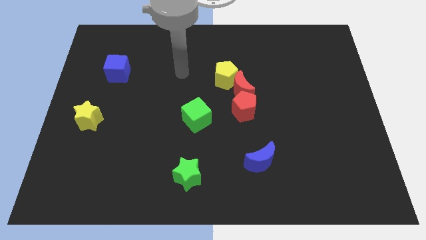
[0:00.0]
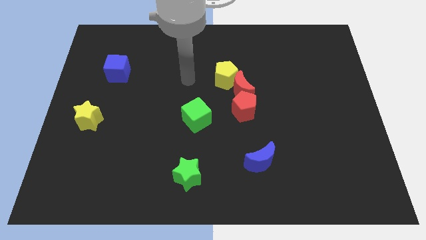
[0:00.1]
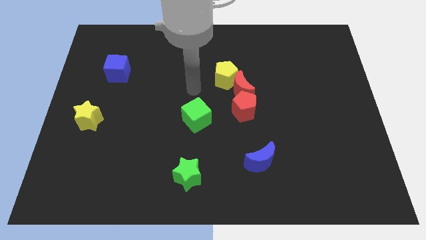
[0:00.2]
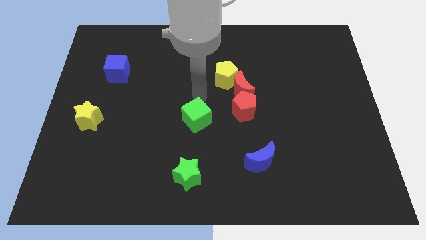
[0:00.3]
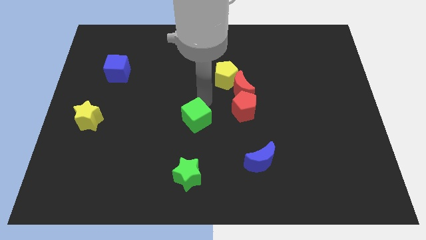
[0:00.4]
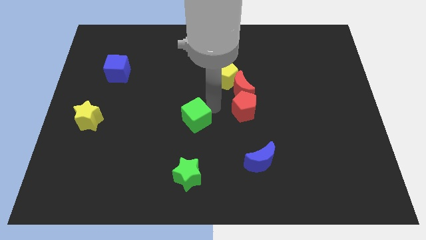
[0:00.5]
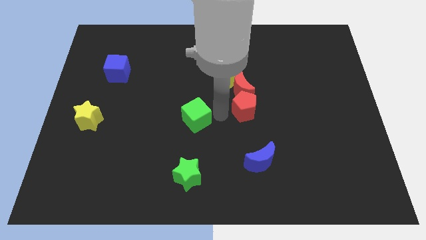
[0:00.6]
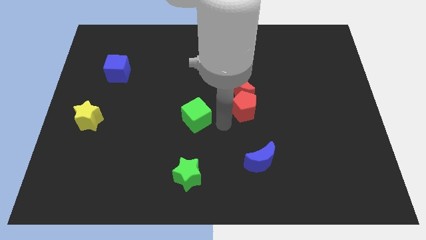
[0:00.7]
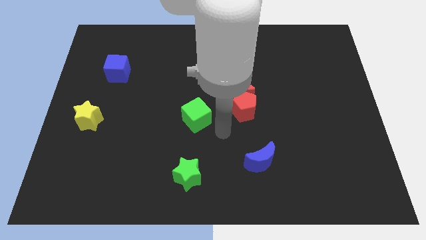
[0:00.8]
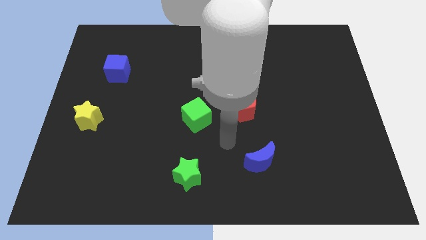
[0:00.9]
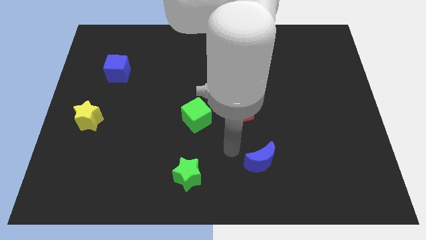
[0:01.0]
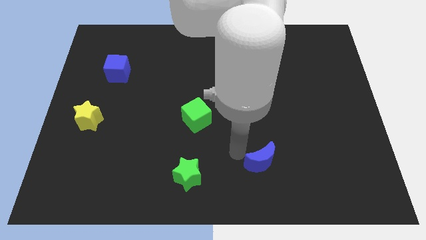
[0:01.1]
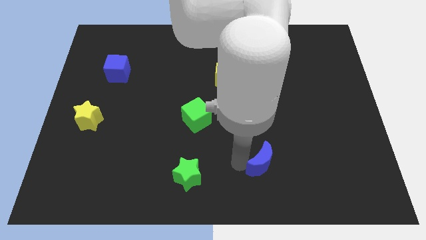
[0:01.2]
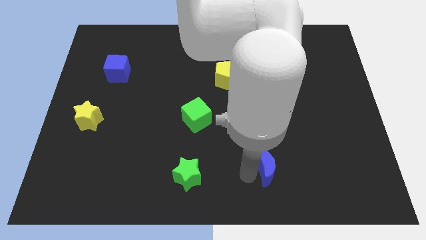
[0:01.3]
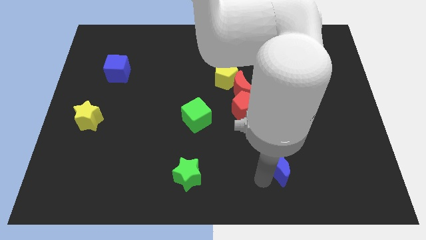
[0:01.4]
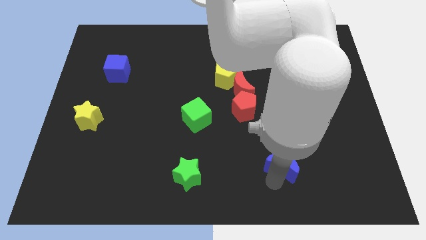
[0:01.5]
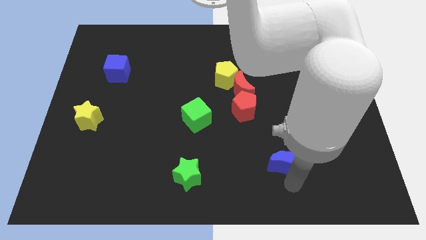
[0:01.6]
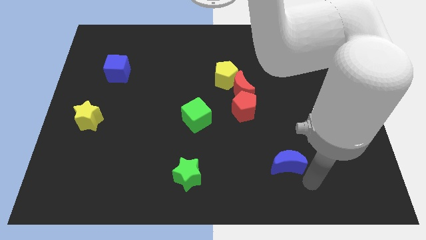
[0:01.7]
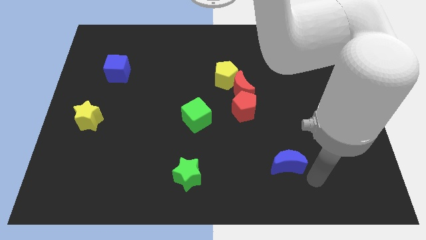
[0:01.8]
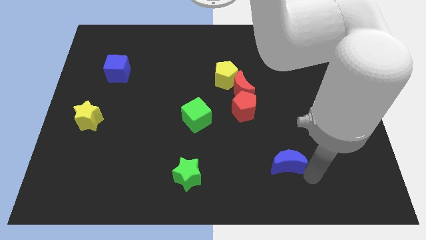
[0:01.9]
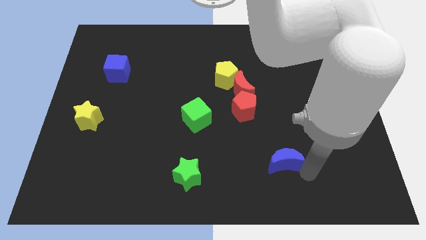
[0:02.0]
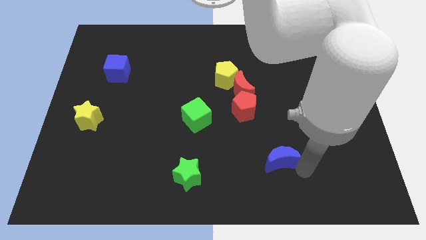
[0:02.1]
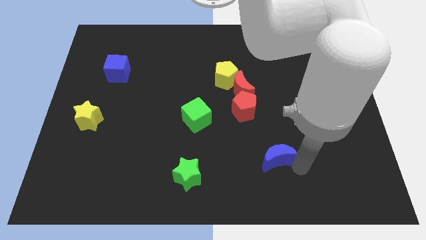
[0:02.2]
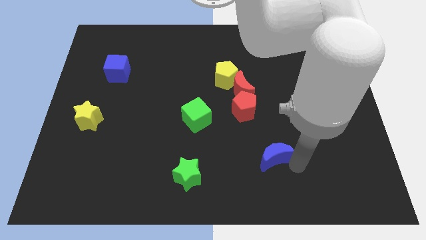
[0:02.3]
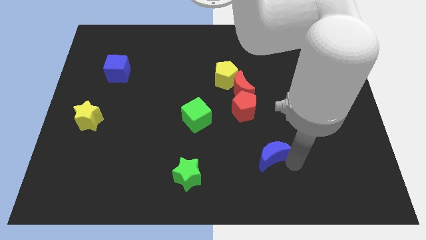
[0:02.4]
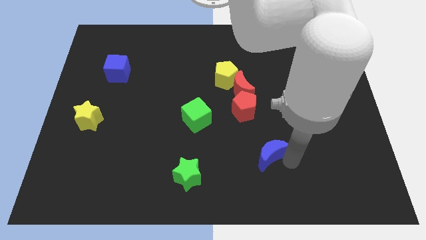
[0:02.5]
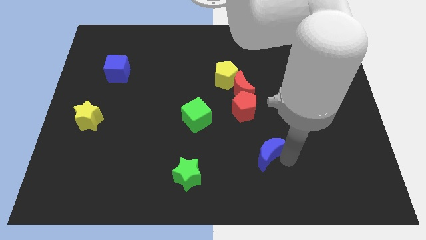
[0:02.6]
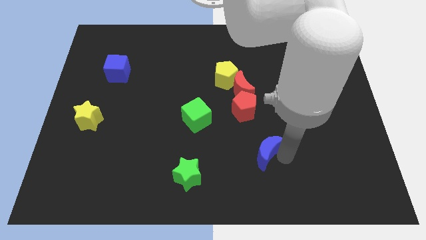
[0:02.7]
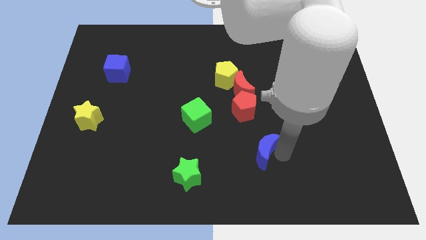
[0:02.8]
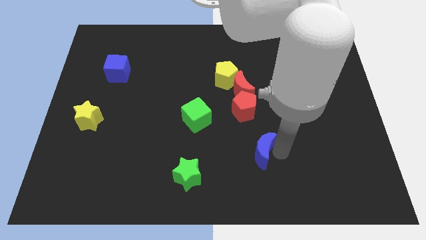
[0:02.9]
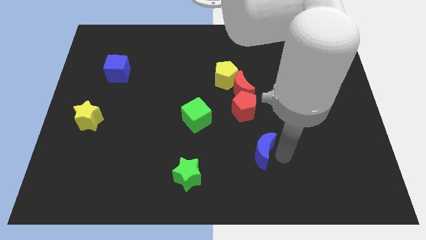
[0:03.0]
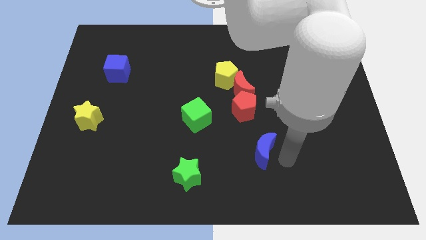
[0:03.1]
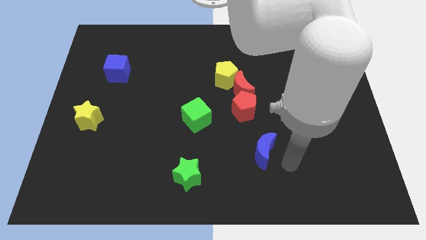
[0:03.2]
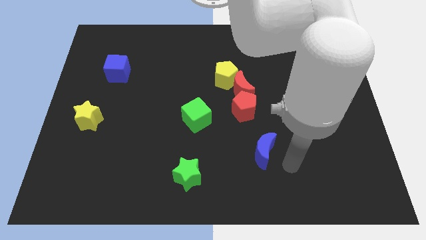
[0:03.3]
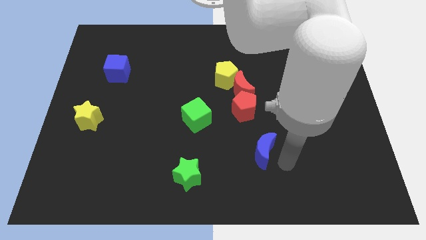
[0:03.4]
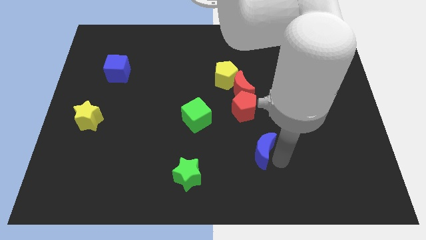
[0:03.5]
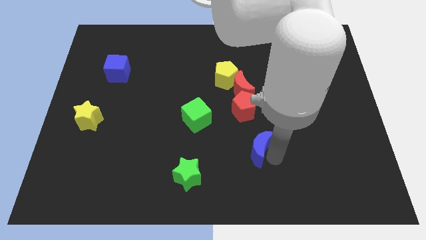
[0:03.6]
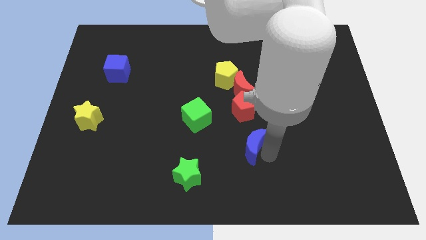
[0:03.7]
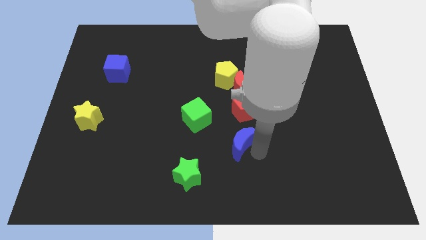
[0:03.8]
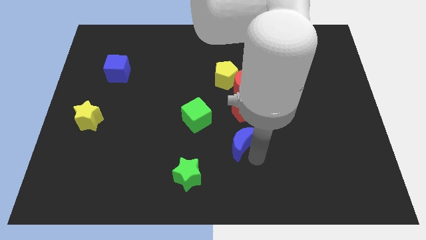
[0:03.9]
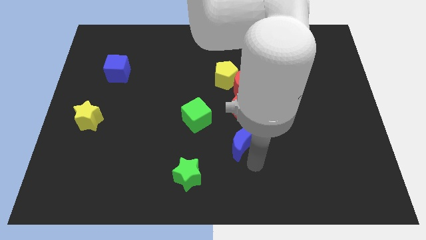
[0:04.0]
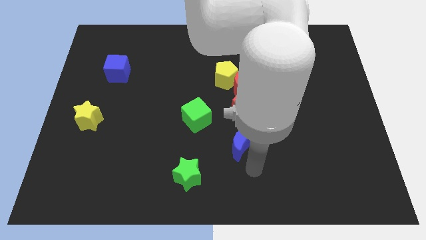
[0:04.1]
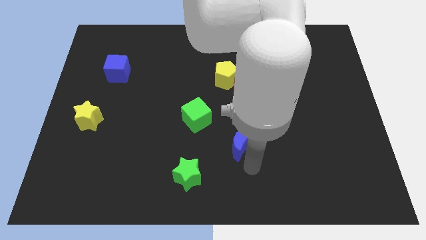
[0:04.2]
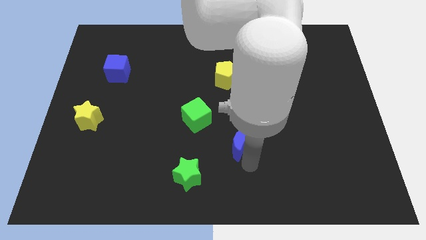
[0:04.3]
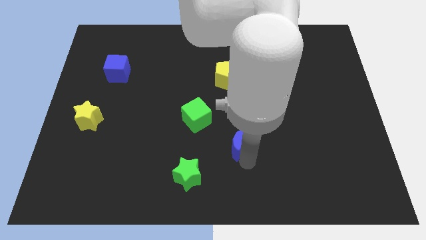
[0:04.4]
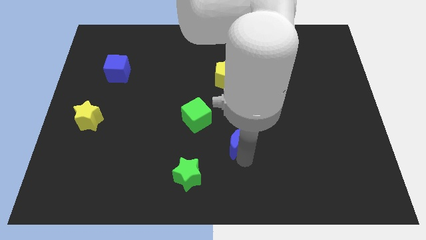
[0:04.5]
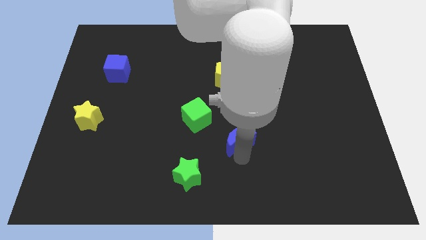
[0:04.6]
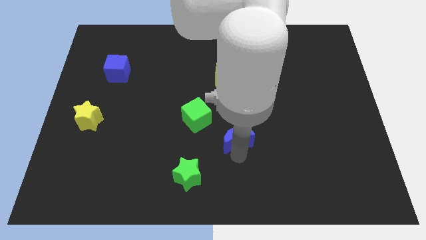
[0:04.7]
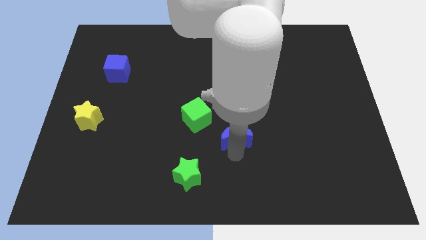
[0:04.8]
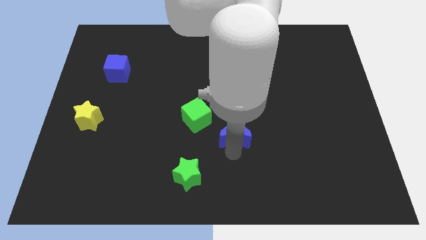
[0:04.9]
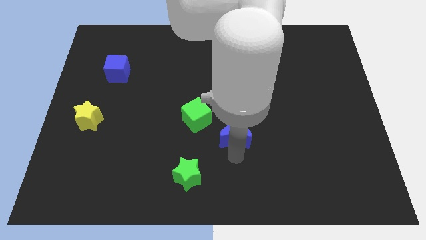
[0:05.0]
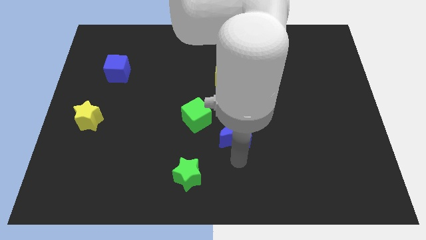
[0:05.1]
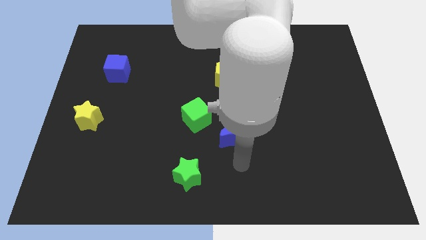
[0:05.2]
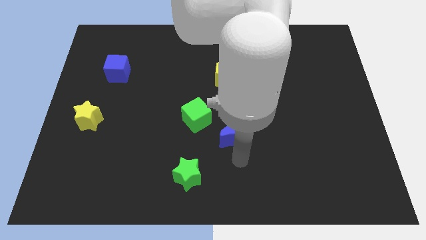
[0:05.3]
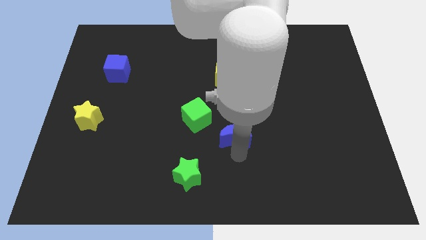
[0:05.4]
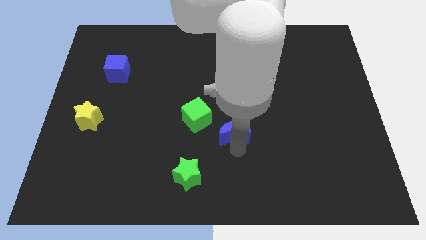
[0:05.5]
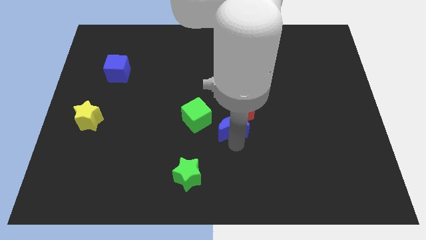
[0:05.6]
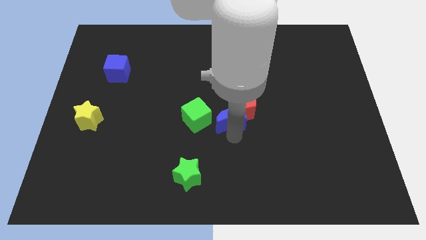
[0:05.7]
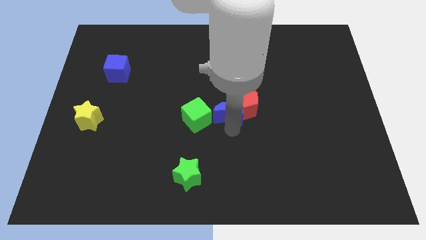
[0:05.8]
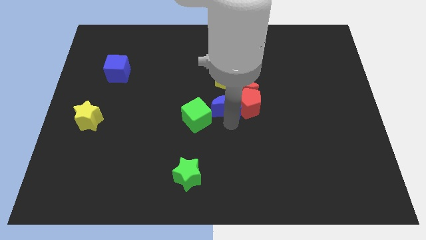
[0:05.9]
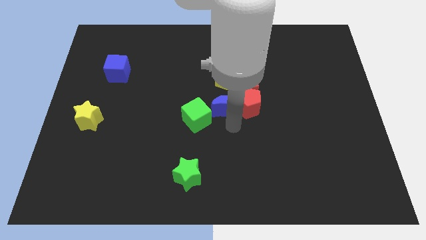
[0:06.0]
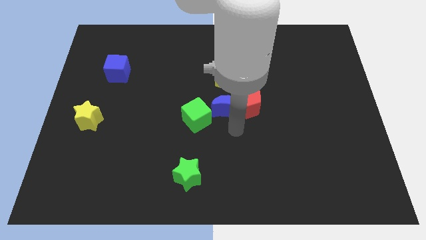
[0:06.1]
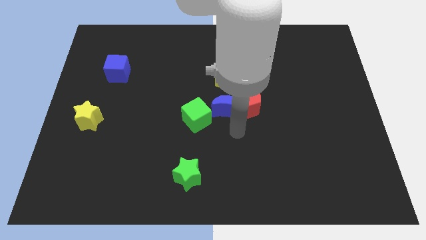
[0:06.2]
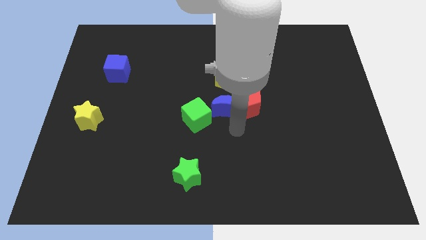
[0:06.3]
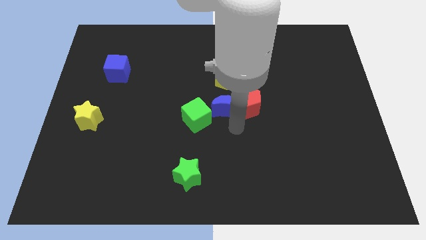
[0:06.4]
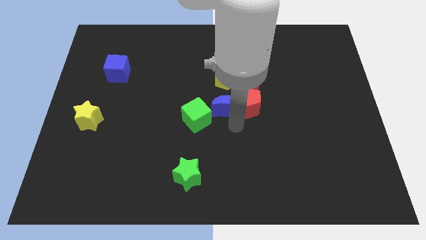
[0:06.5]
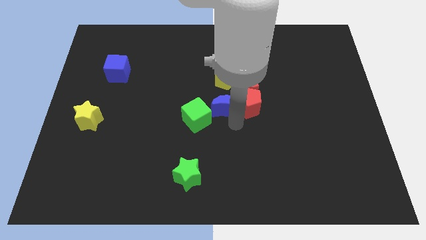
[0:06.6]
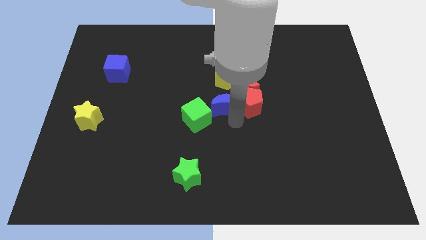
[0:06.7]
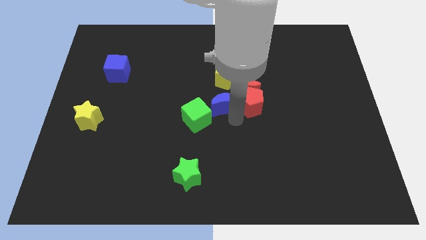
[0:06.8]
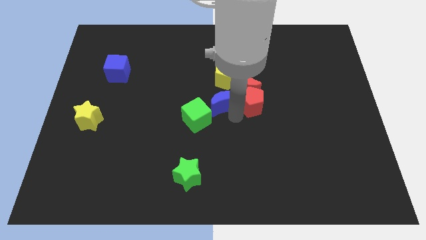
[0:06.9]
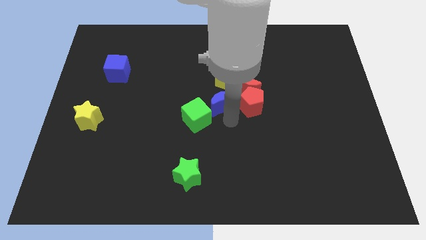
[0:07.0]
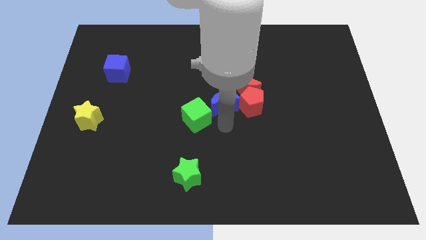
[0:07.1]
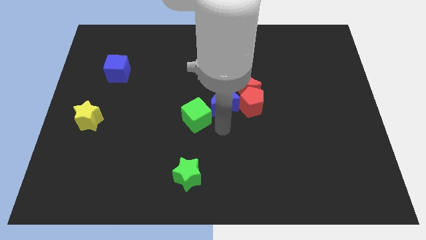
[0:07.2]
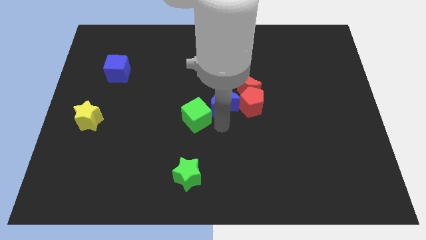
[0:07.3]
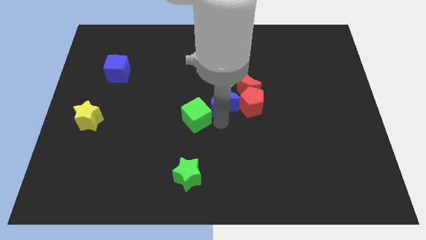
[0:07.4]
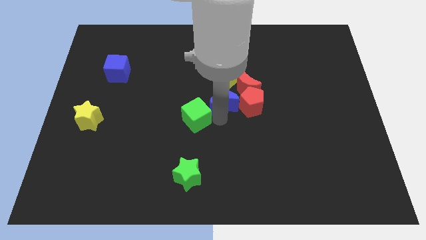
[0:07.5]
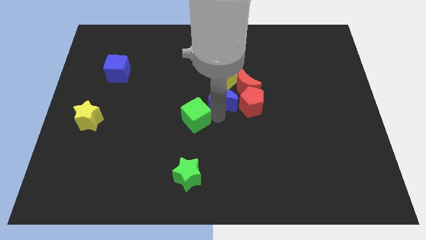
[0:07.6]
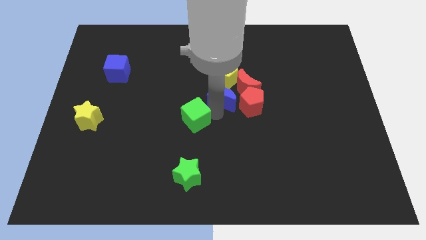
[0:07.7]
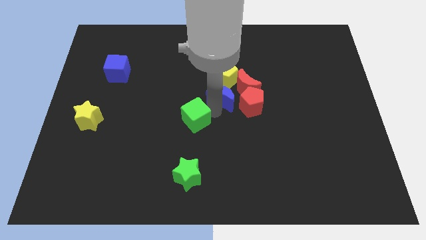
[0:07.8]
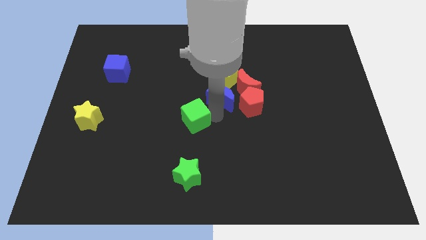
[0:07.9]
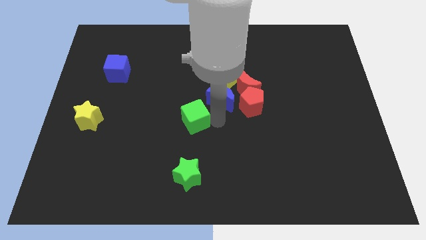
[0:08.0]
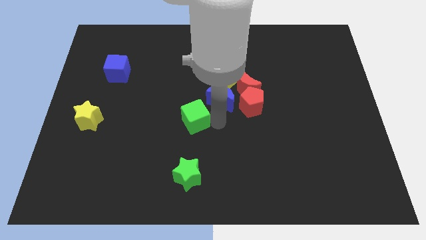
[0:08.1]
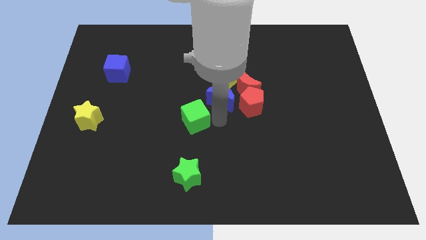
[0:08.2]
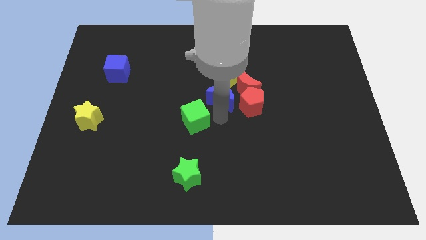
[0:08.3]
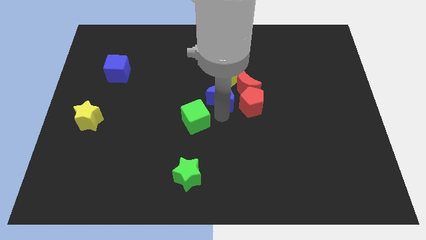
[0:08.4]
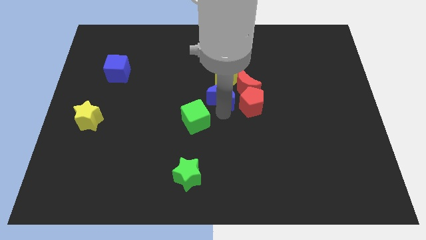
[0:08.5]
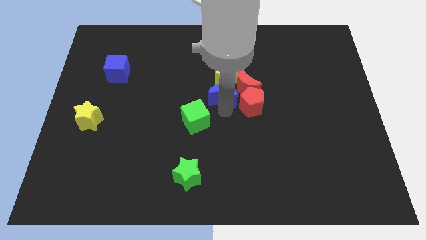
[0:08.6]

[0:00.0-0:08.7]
push the blue moon close to the yellow pentagon
